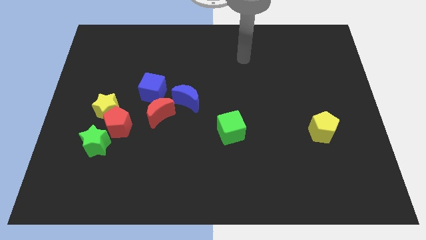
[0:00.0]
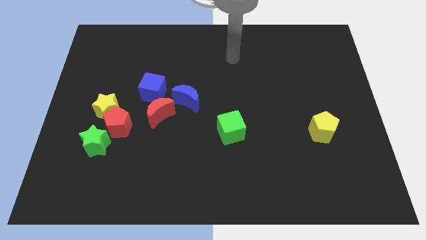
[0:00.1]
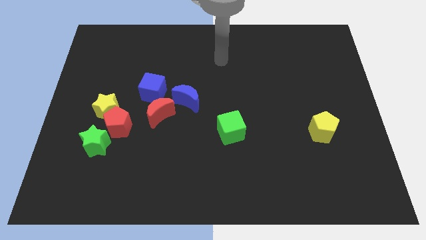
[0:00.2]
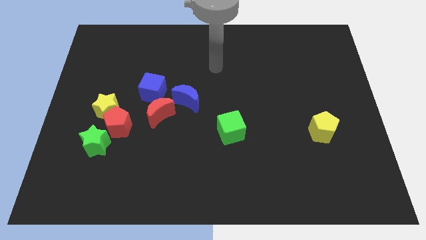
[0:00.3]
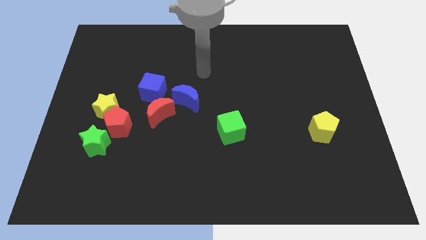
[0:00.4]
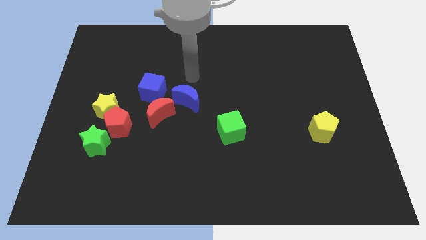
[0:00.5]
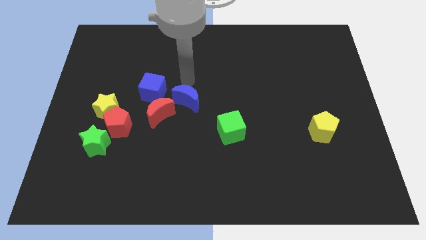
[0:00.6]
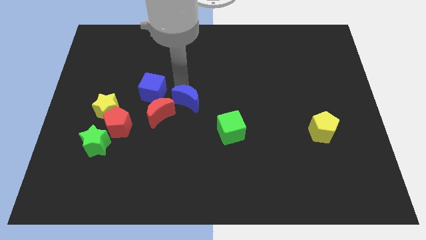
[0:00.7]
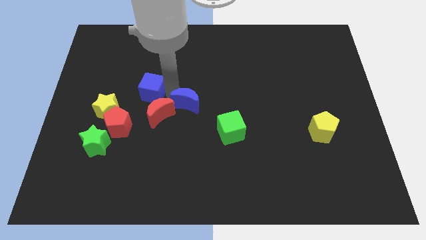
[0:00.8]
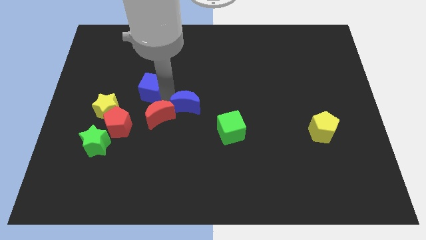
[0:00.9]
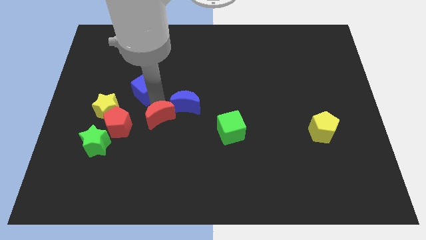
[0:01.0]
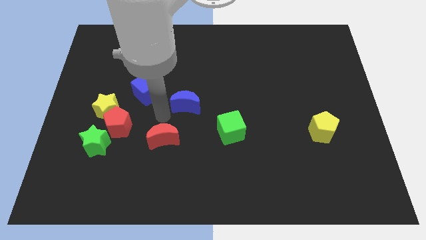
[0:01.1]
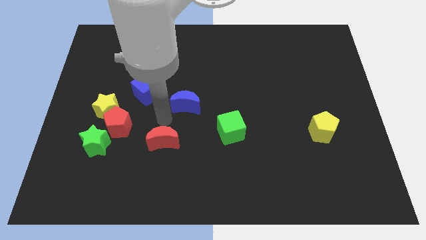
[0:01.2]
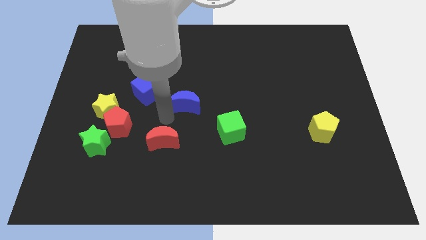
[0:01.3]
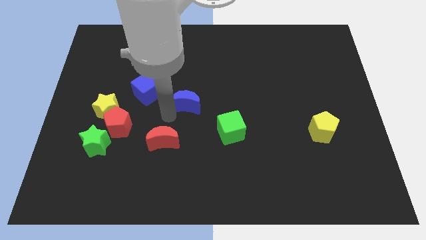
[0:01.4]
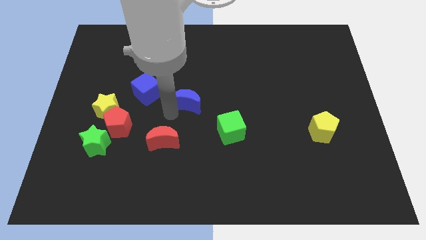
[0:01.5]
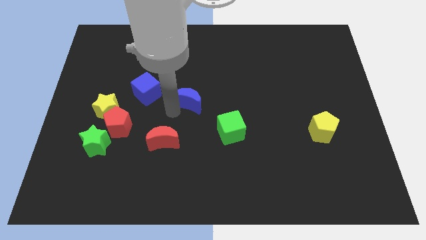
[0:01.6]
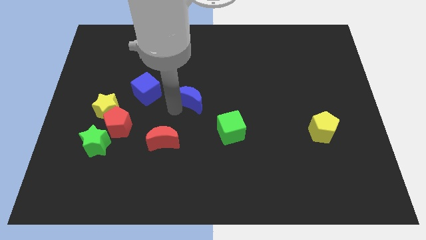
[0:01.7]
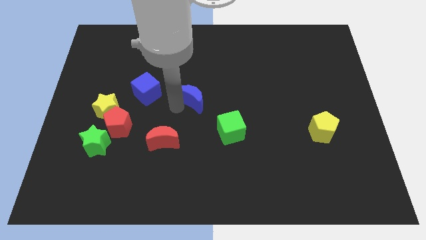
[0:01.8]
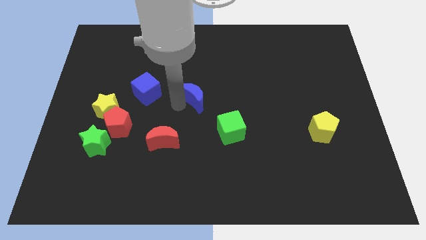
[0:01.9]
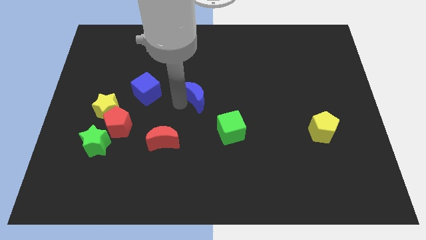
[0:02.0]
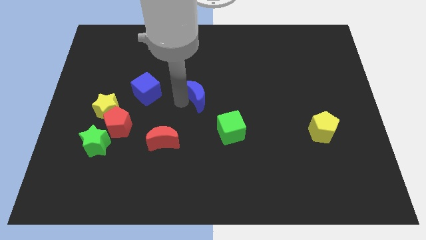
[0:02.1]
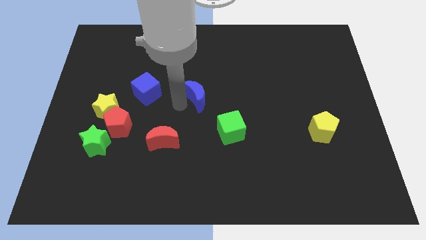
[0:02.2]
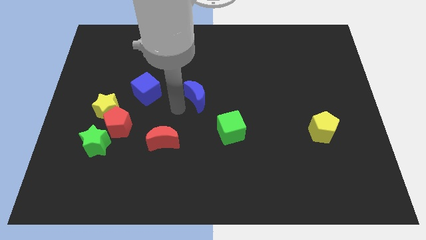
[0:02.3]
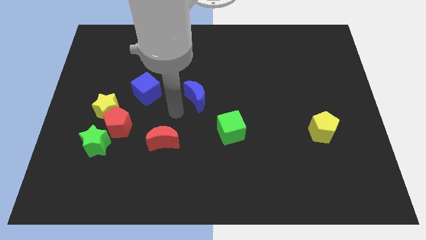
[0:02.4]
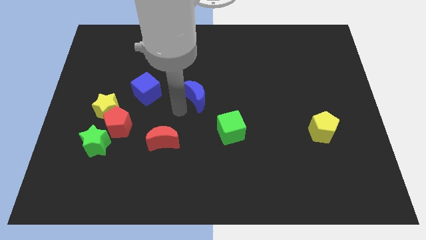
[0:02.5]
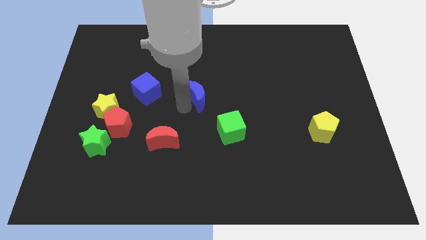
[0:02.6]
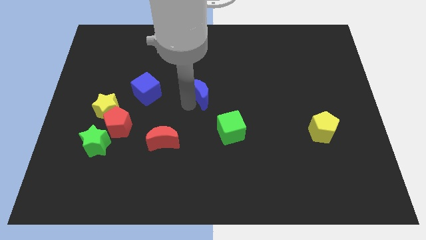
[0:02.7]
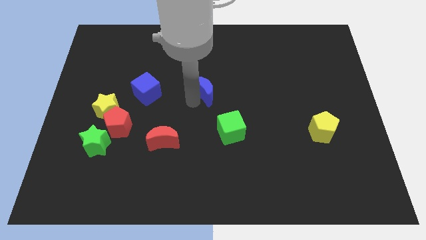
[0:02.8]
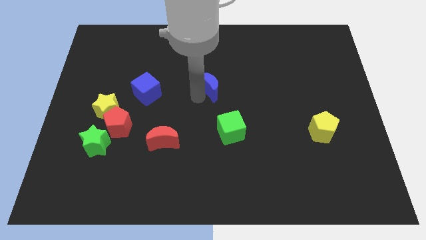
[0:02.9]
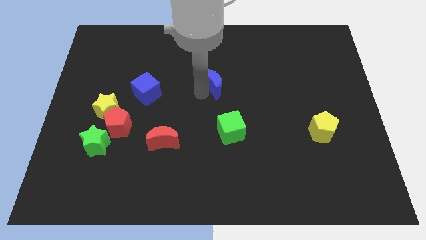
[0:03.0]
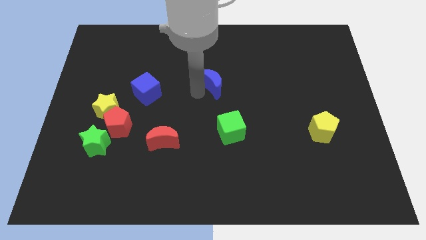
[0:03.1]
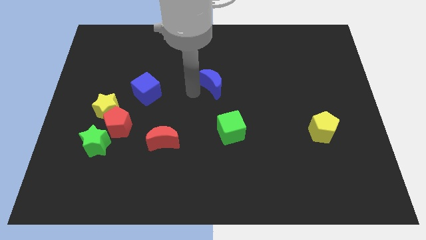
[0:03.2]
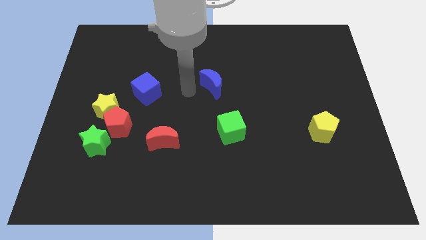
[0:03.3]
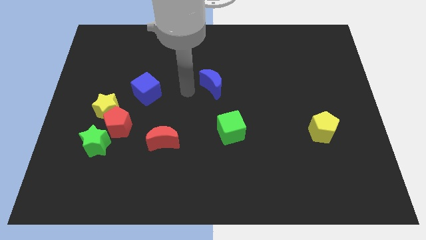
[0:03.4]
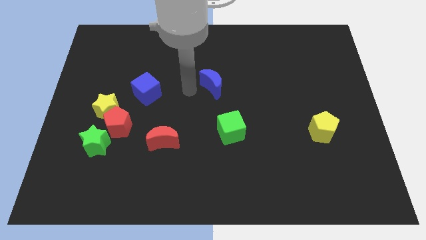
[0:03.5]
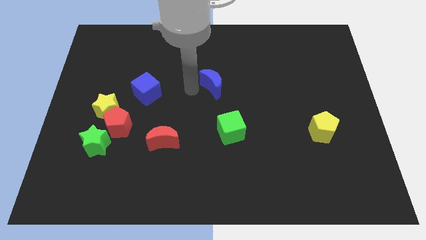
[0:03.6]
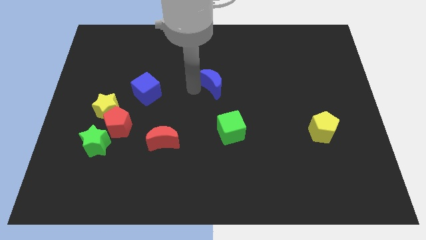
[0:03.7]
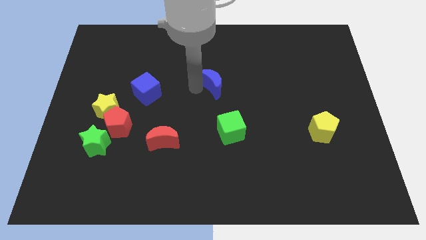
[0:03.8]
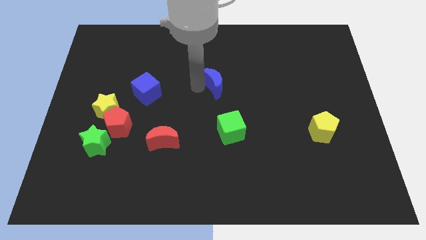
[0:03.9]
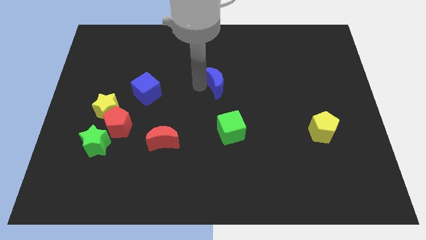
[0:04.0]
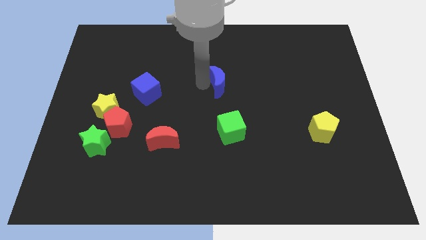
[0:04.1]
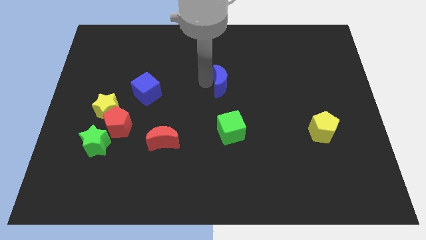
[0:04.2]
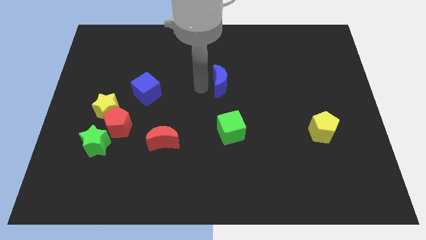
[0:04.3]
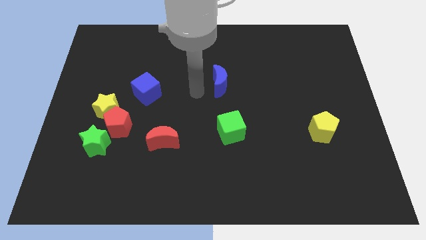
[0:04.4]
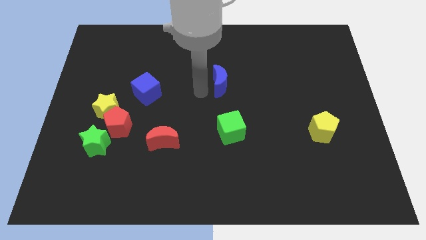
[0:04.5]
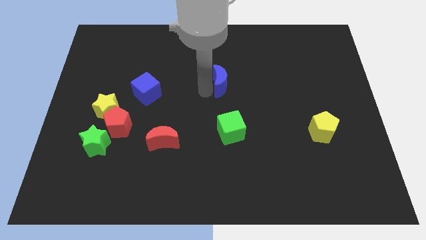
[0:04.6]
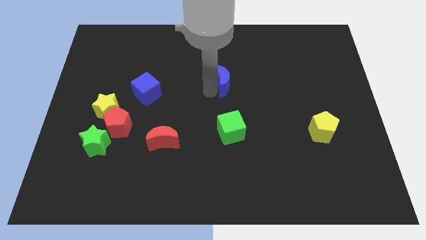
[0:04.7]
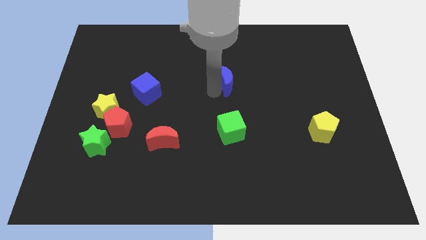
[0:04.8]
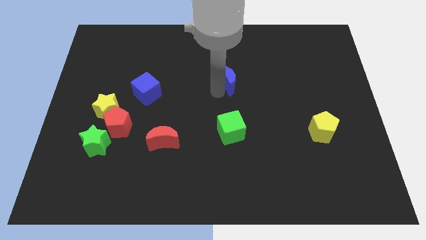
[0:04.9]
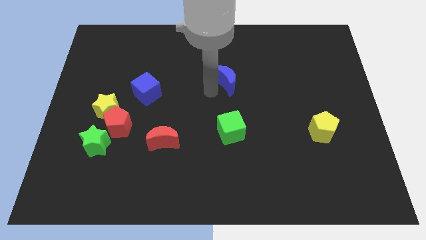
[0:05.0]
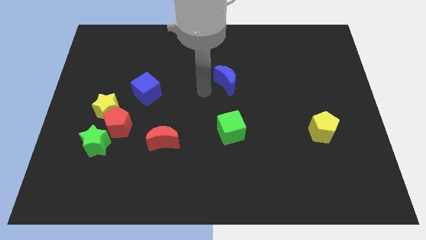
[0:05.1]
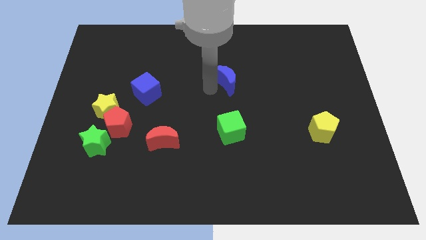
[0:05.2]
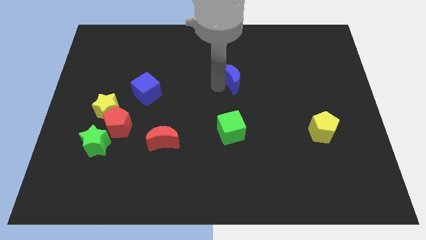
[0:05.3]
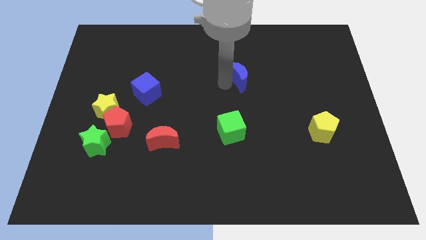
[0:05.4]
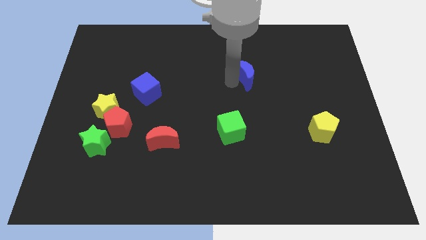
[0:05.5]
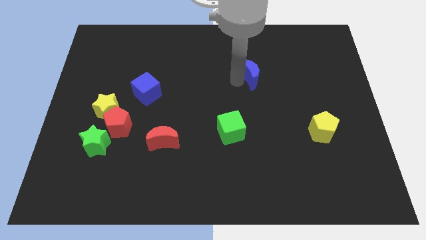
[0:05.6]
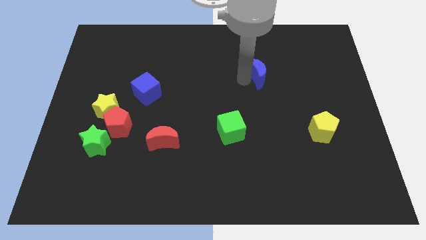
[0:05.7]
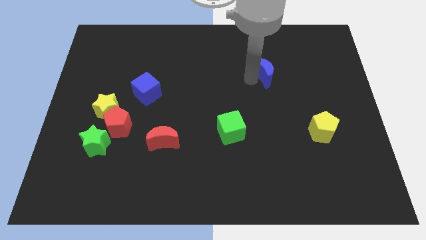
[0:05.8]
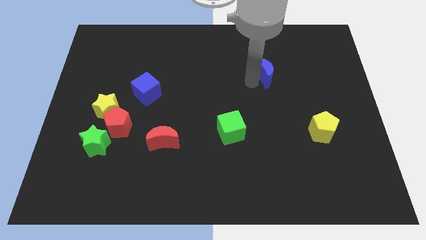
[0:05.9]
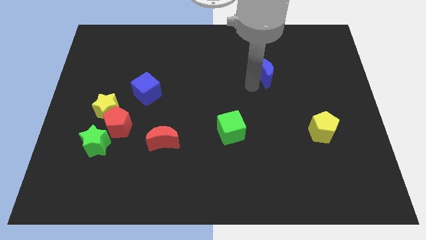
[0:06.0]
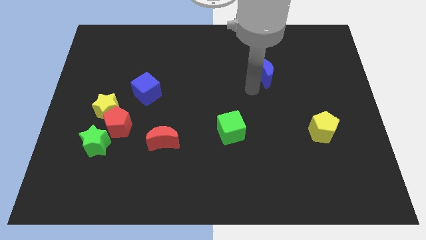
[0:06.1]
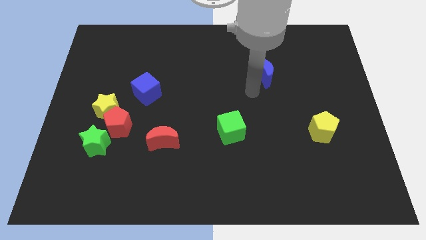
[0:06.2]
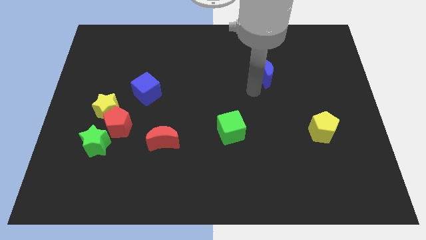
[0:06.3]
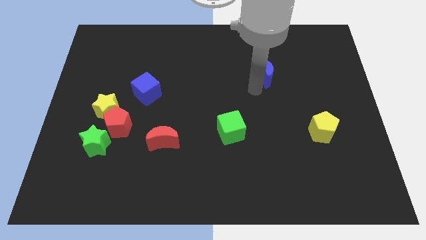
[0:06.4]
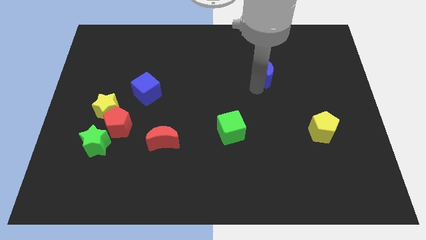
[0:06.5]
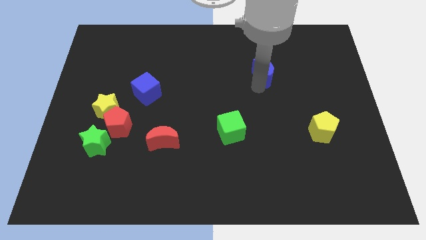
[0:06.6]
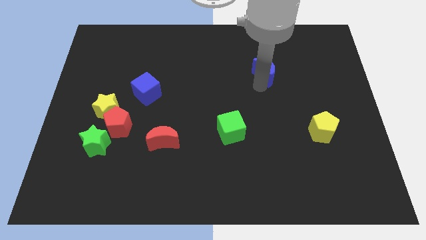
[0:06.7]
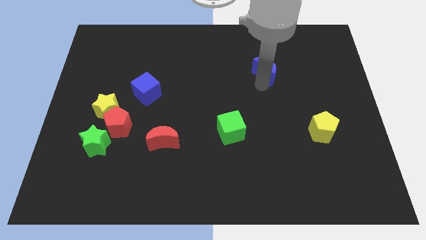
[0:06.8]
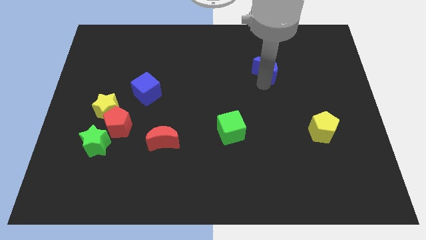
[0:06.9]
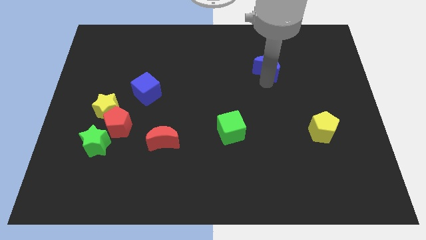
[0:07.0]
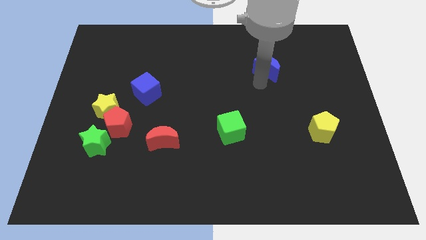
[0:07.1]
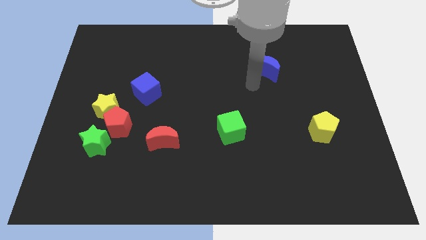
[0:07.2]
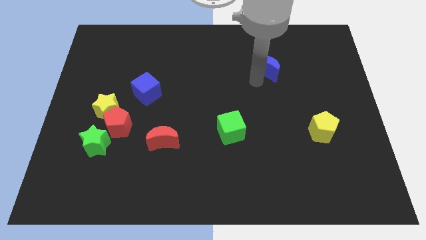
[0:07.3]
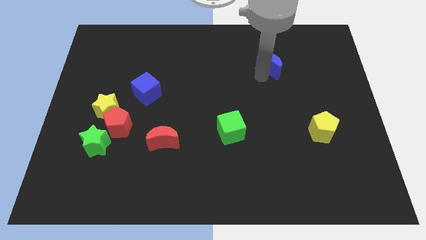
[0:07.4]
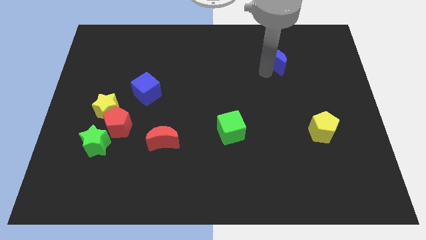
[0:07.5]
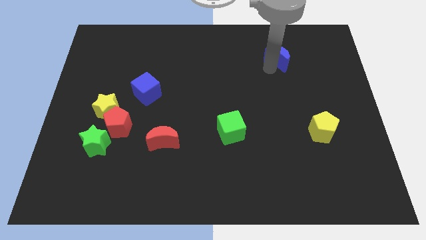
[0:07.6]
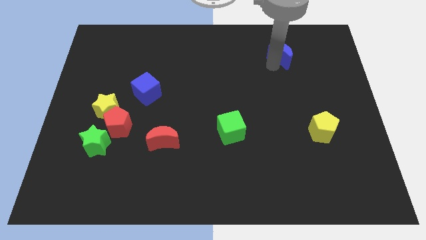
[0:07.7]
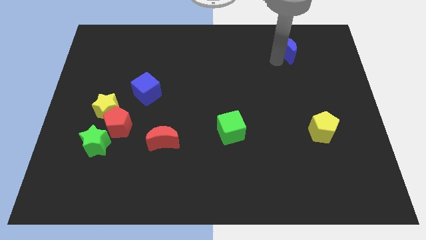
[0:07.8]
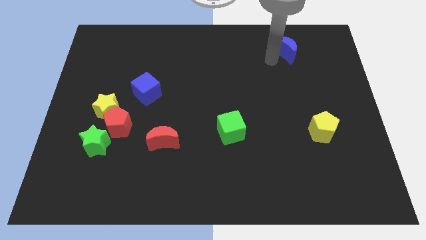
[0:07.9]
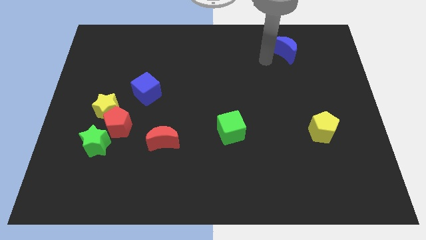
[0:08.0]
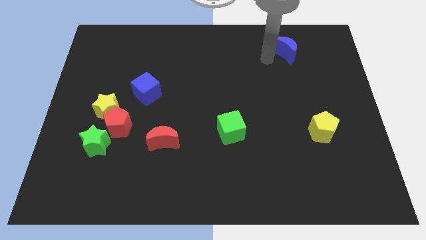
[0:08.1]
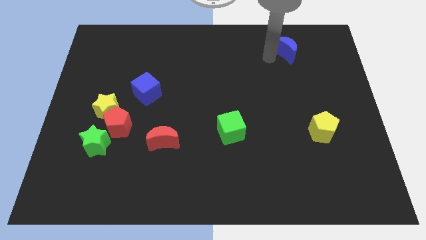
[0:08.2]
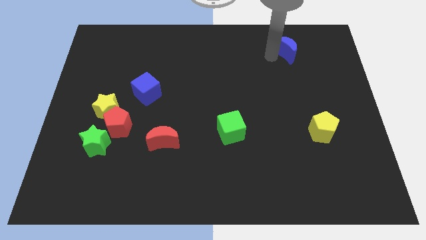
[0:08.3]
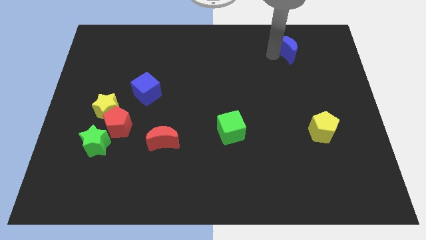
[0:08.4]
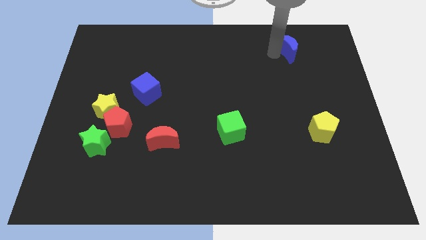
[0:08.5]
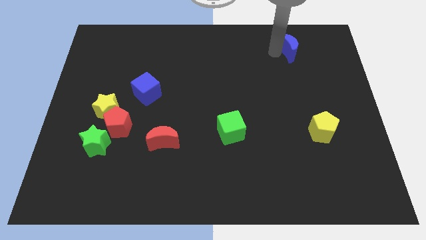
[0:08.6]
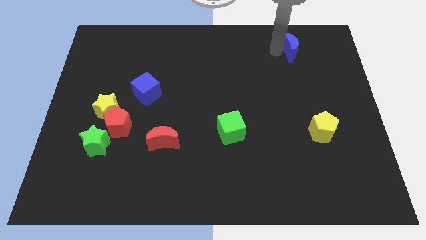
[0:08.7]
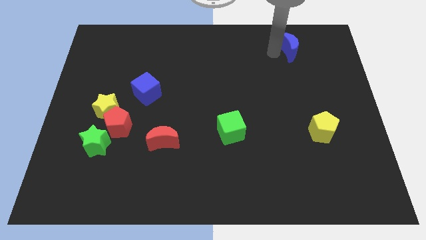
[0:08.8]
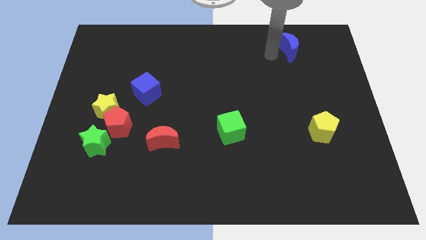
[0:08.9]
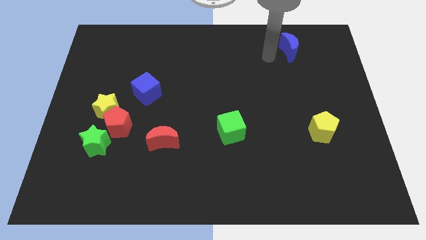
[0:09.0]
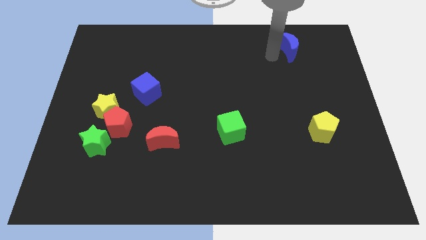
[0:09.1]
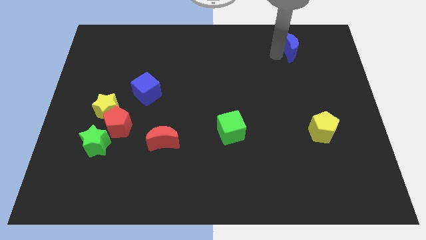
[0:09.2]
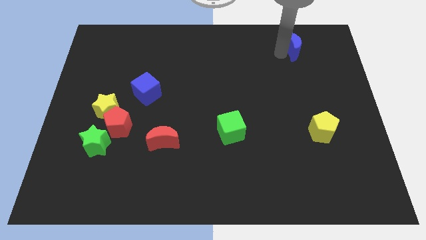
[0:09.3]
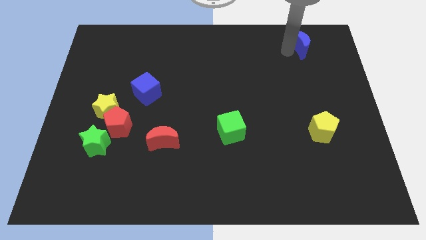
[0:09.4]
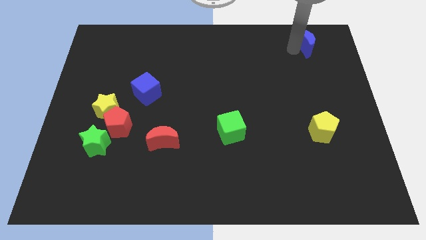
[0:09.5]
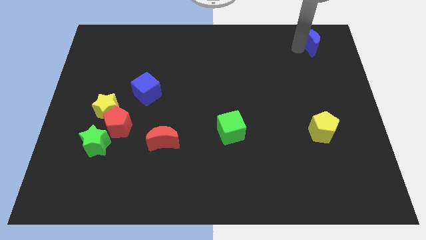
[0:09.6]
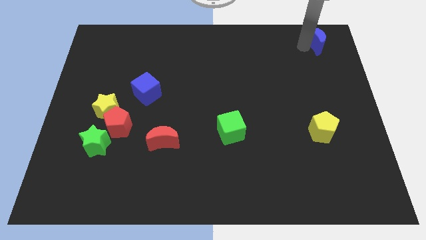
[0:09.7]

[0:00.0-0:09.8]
move the blue moon to the top right of the board
